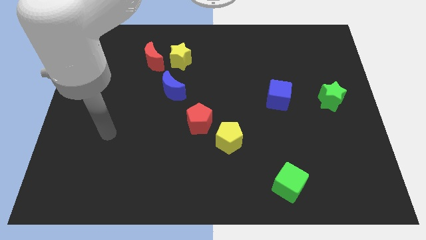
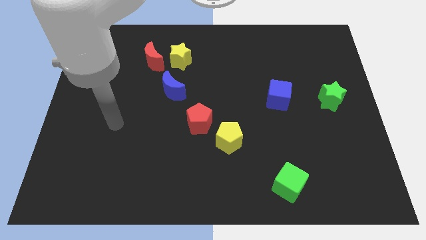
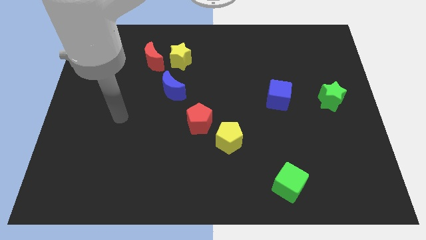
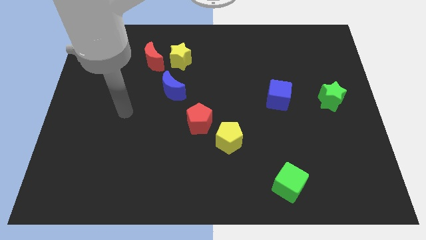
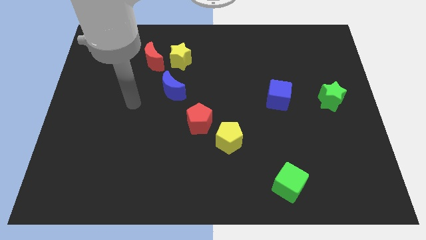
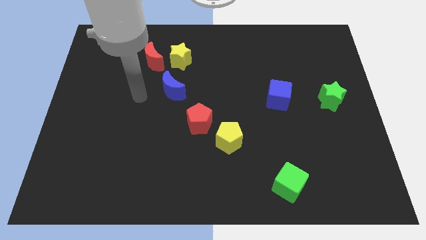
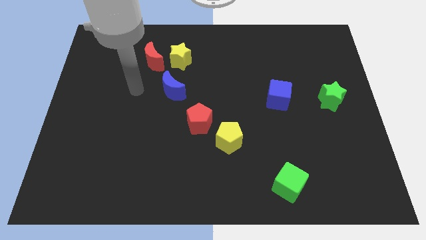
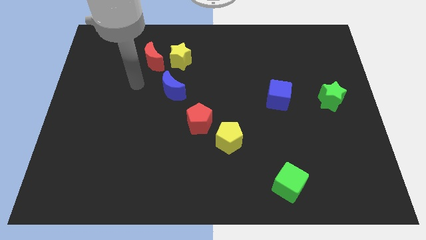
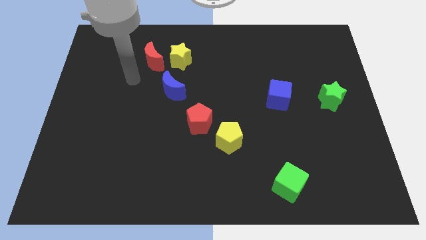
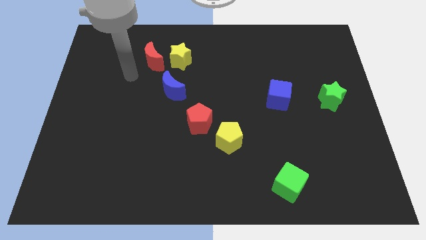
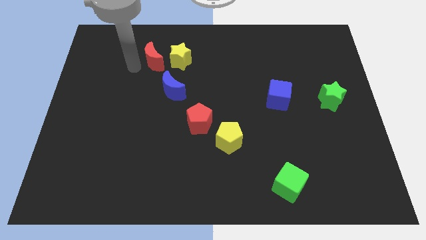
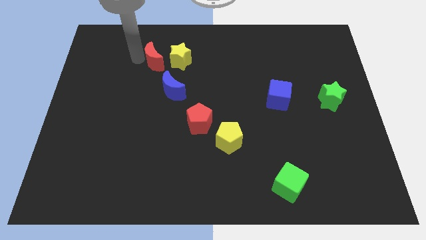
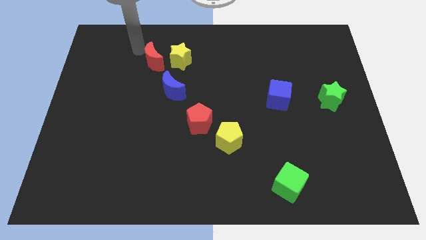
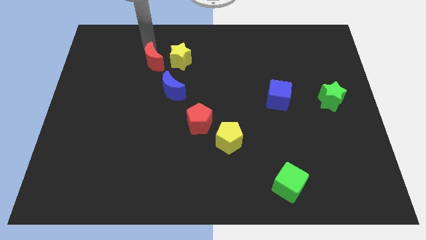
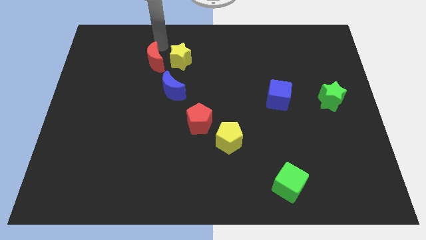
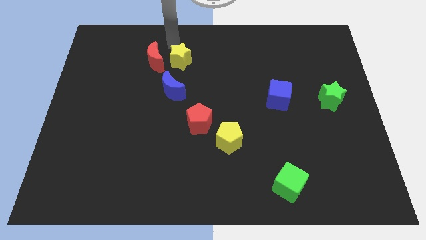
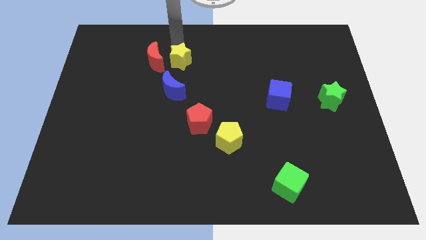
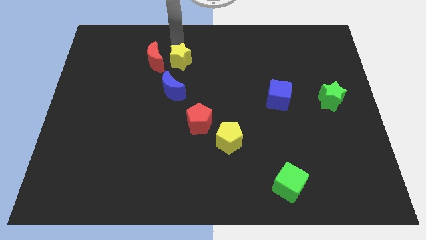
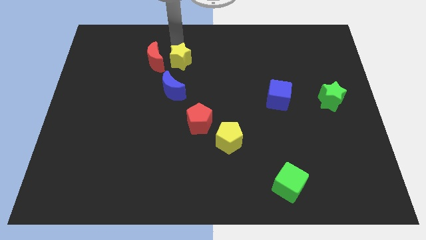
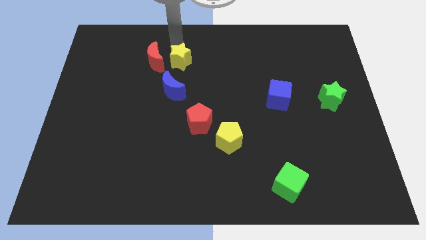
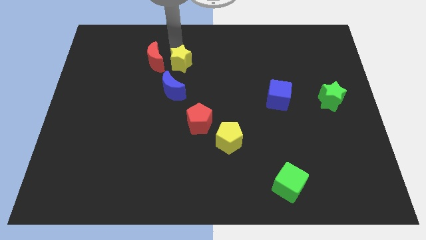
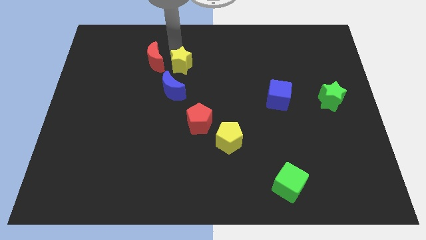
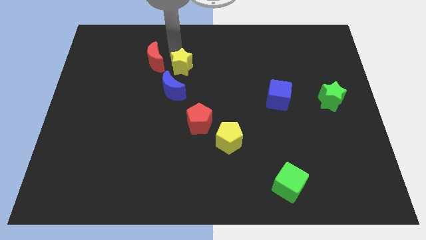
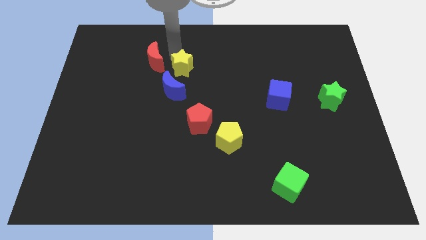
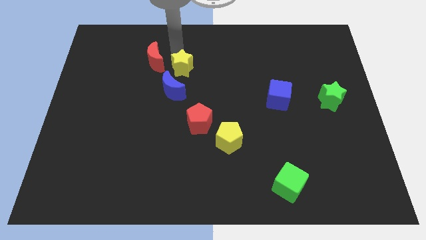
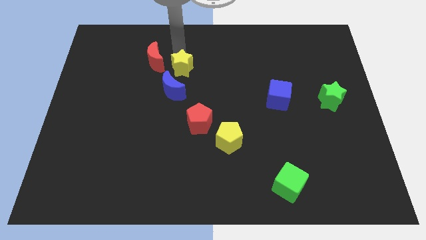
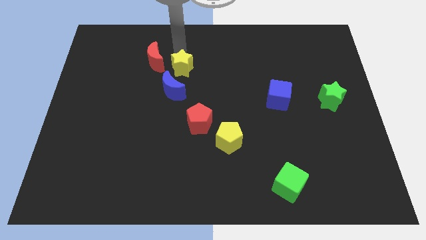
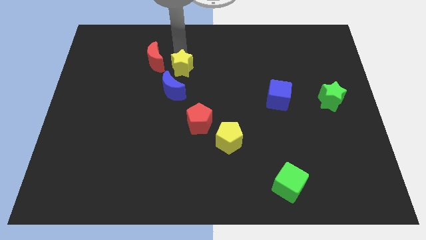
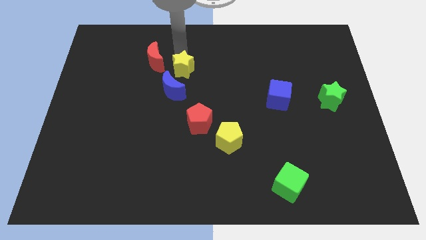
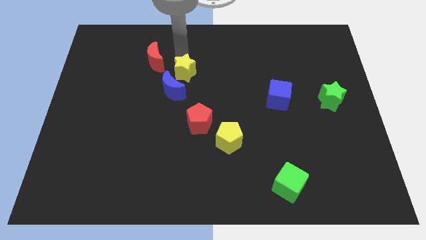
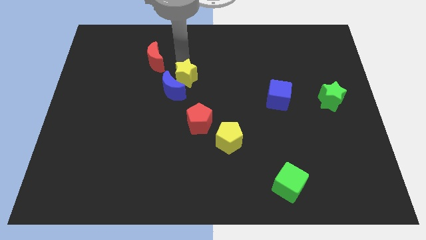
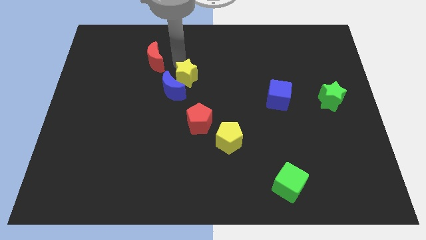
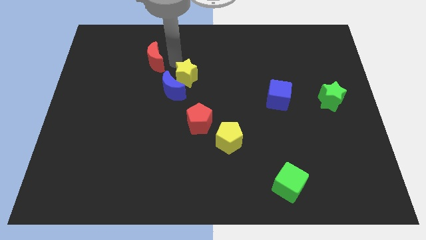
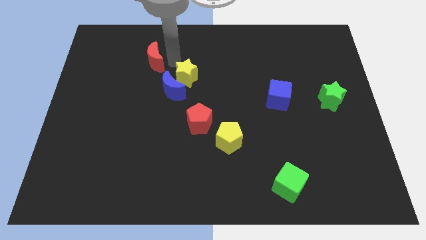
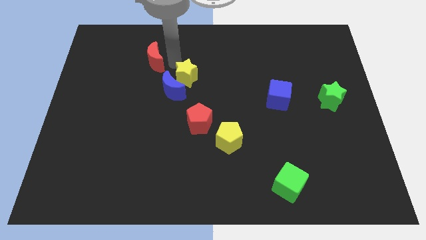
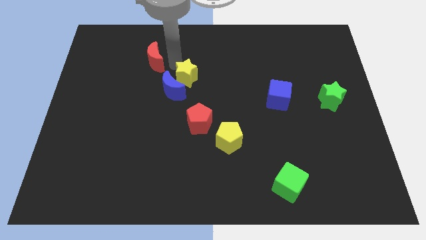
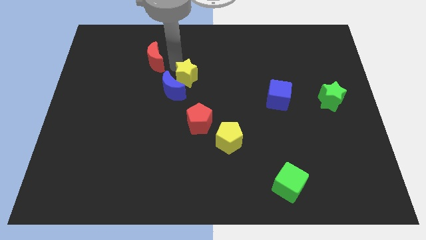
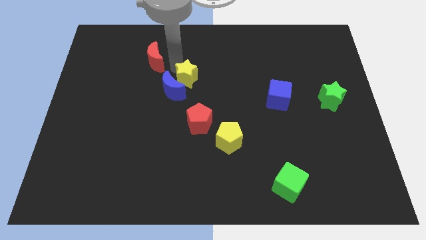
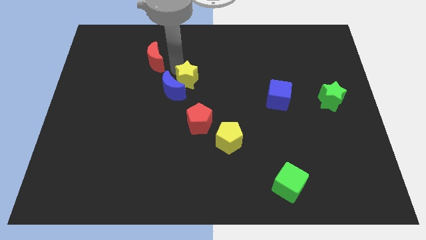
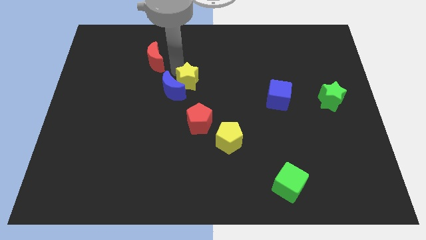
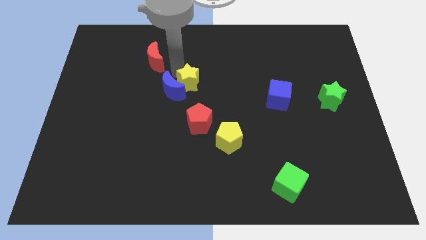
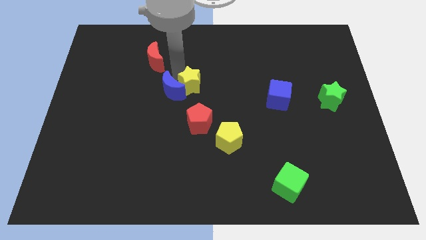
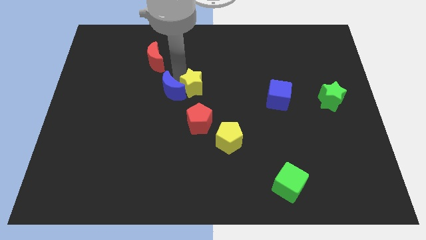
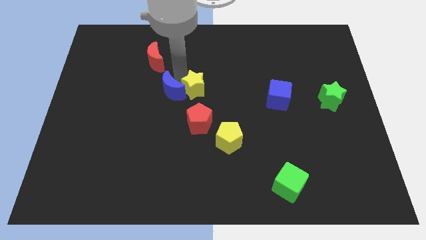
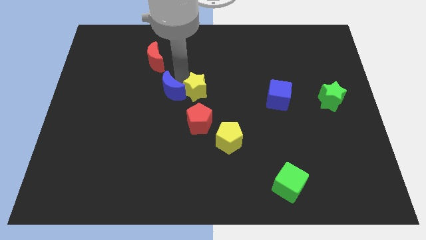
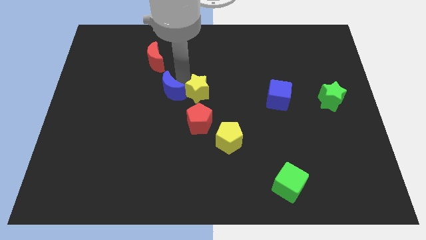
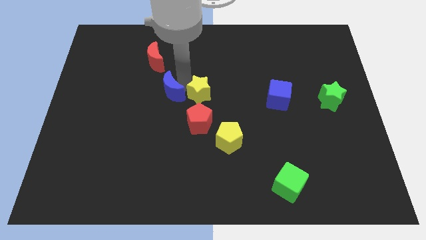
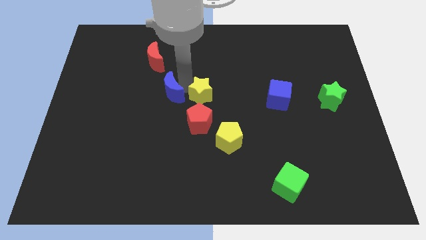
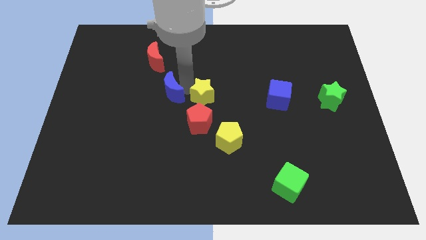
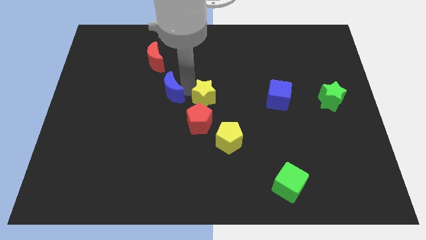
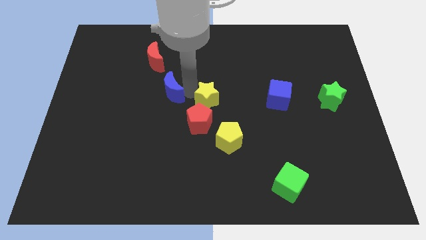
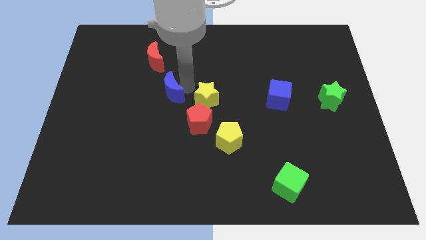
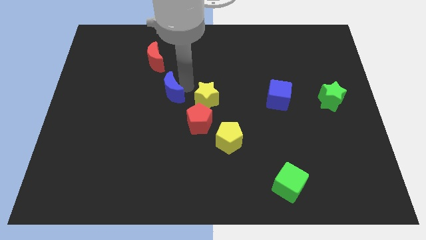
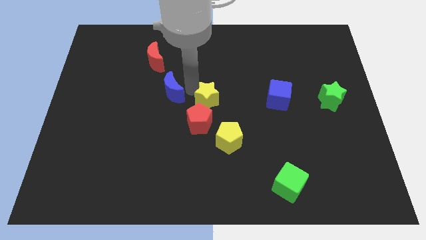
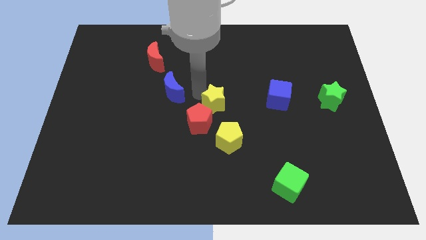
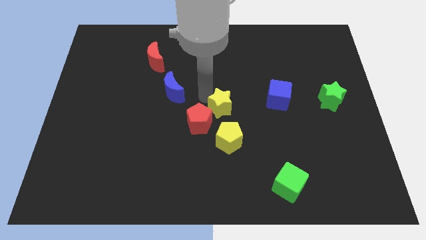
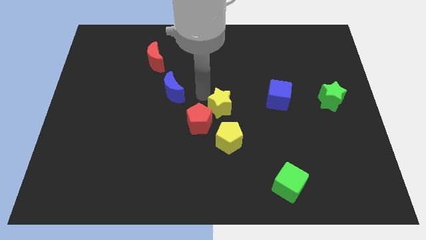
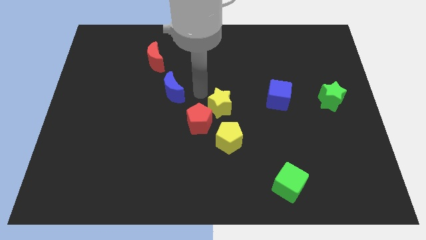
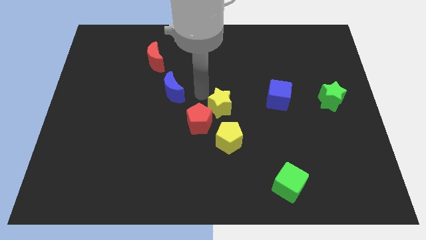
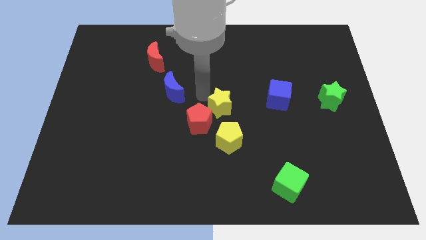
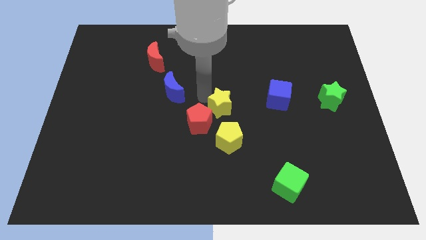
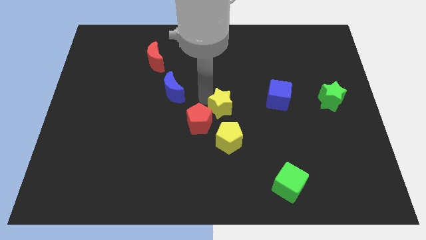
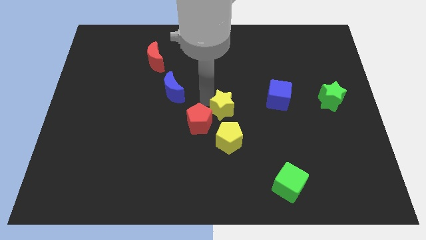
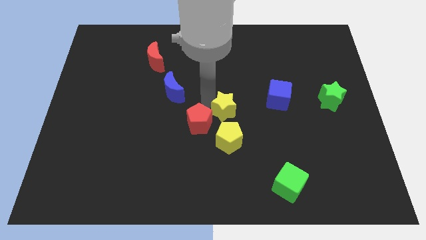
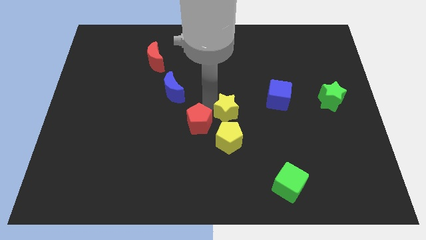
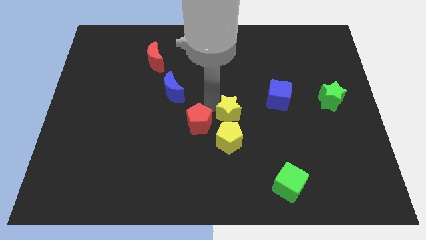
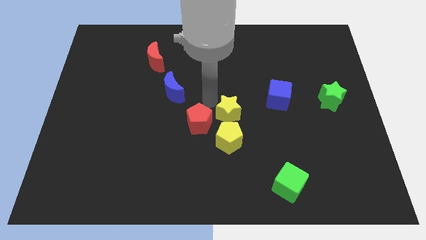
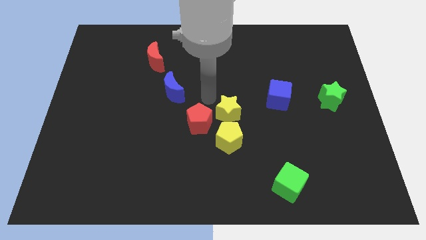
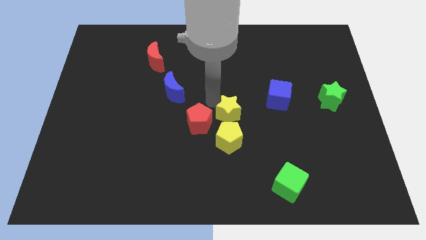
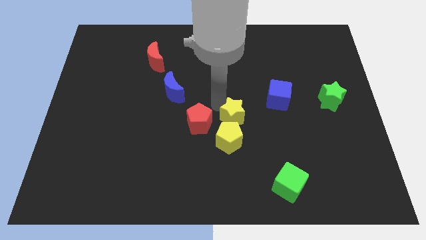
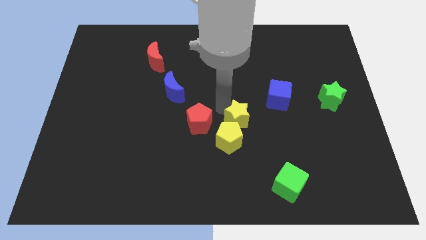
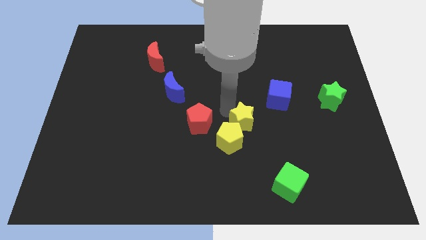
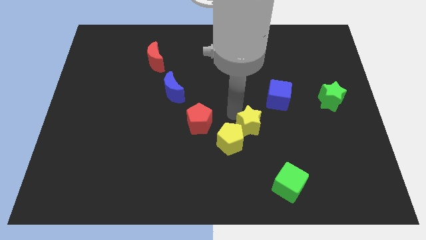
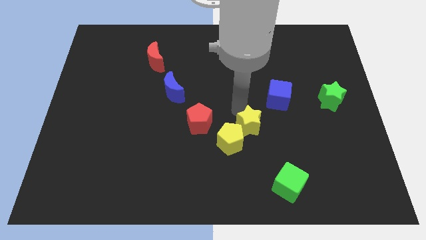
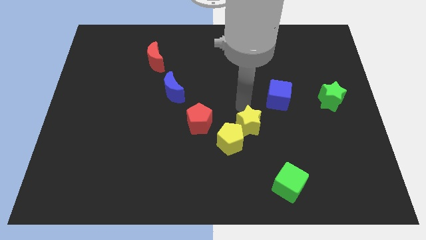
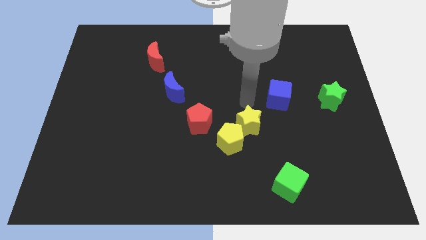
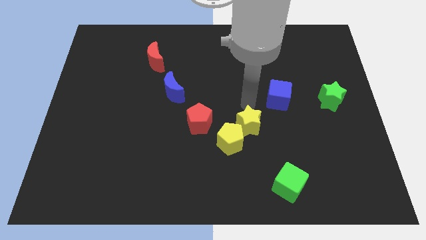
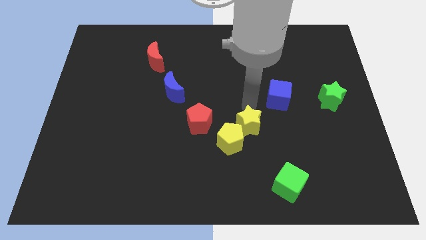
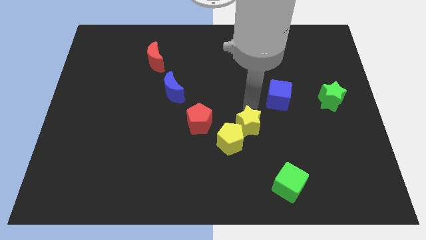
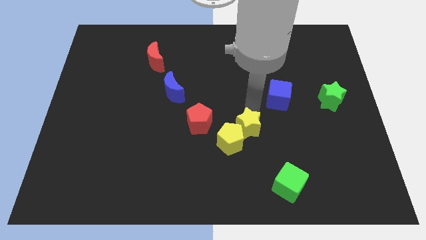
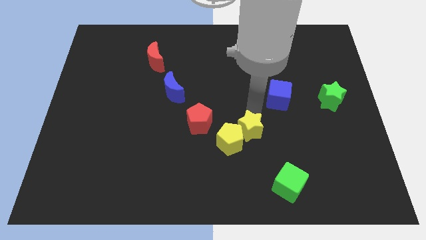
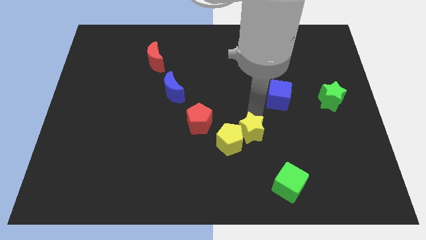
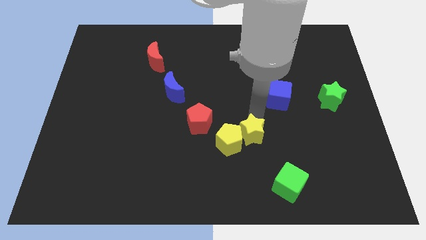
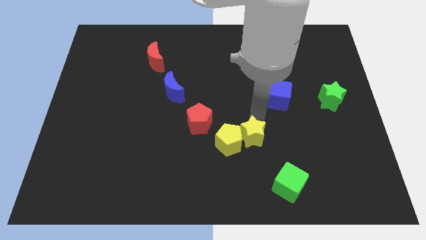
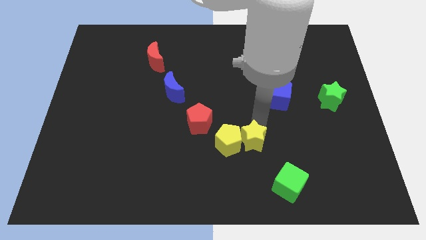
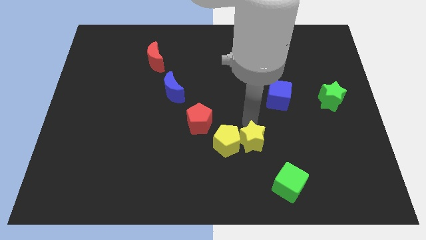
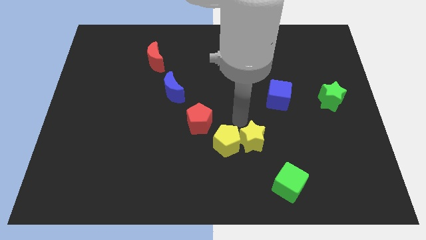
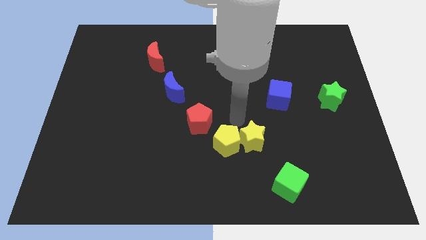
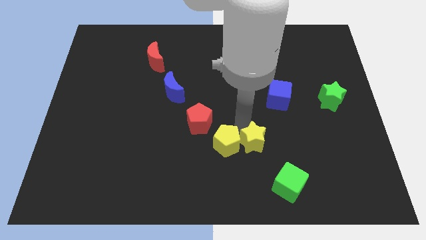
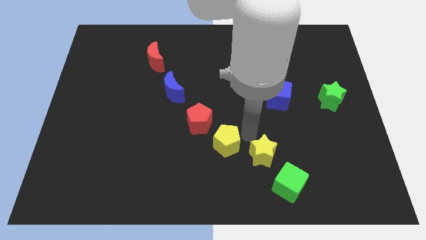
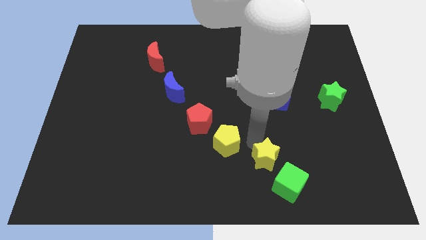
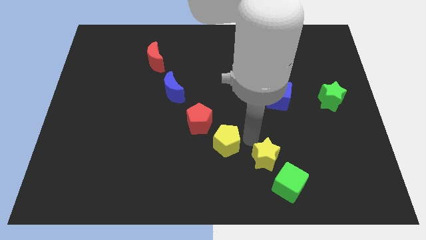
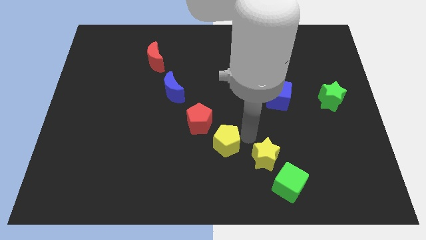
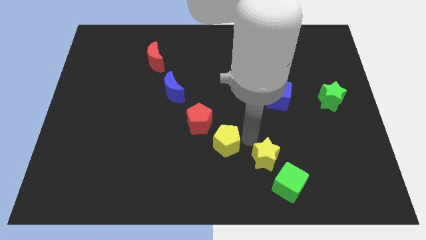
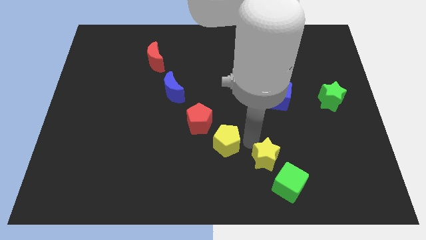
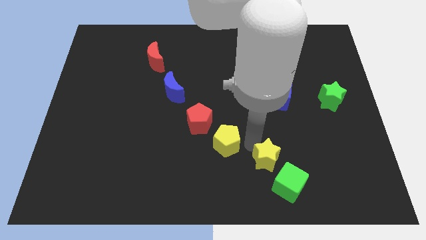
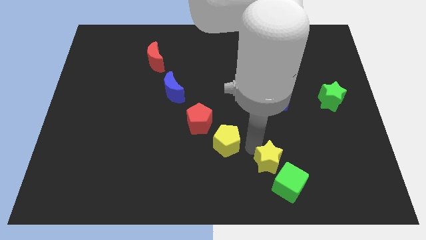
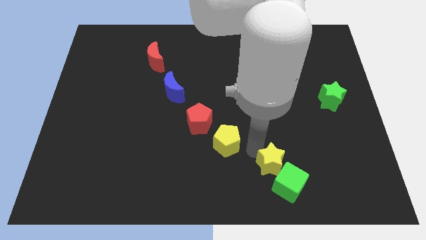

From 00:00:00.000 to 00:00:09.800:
slide the yellow star to the green cube
